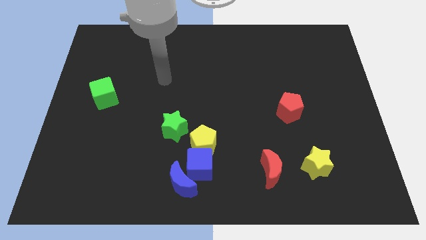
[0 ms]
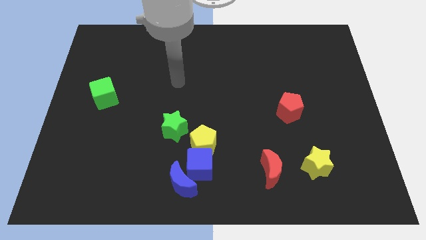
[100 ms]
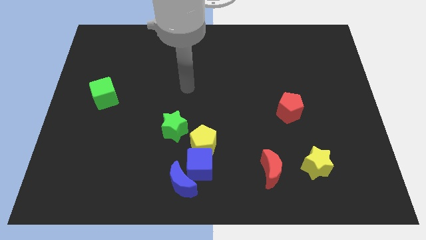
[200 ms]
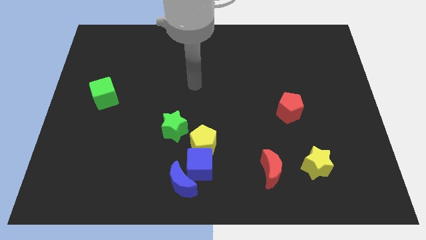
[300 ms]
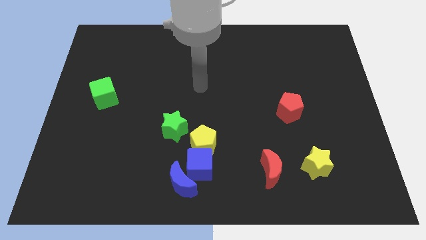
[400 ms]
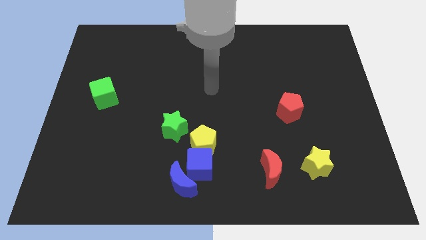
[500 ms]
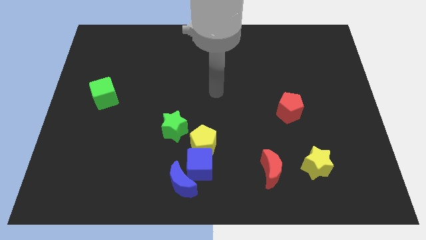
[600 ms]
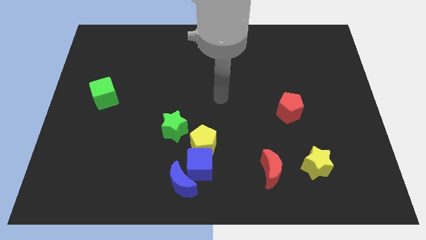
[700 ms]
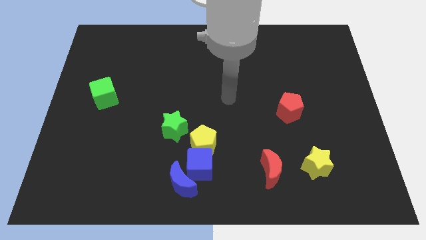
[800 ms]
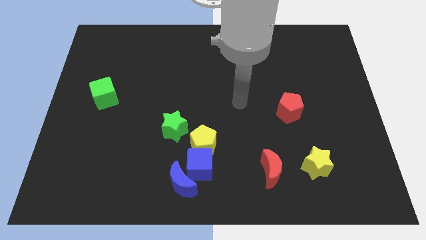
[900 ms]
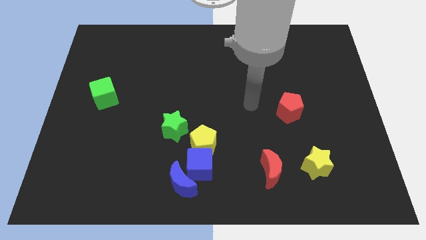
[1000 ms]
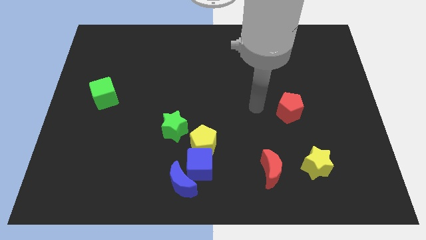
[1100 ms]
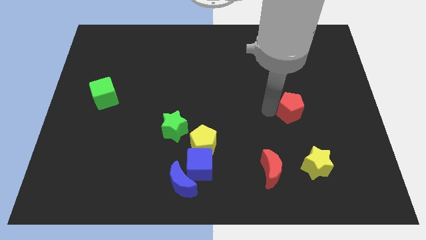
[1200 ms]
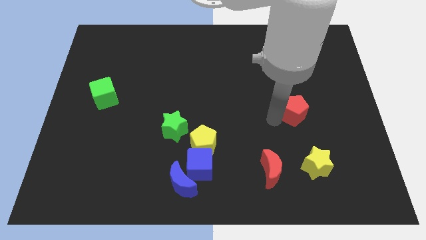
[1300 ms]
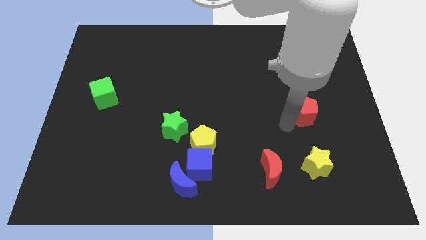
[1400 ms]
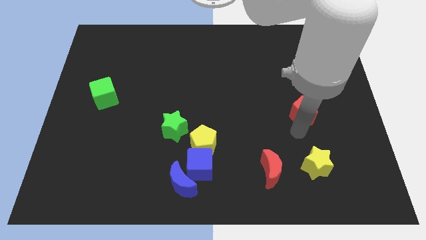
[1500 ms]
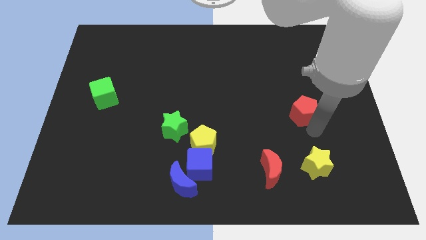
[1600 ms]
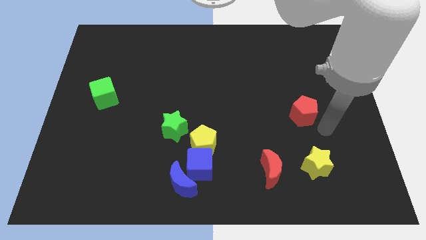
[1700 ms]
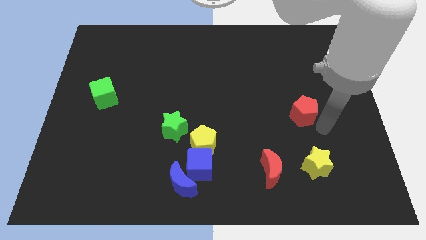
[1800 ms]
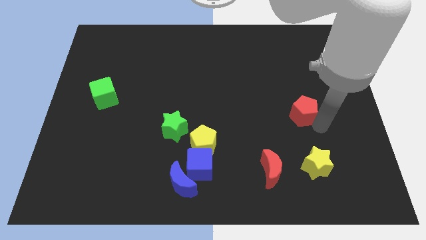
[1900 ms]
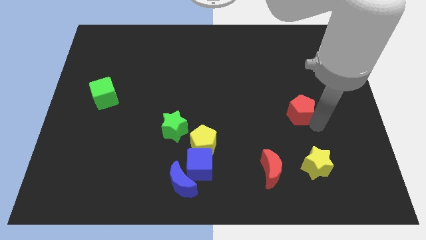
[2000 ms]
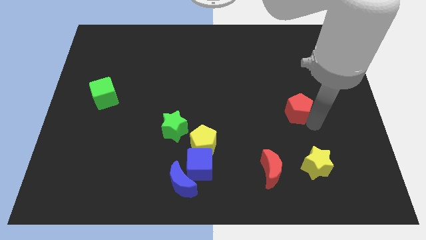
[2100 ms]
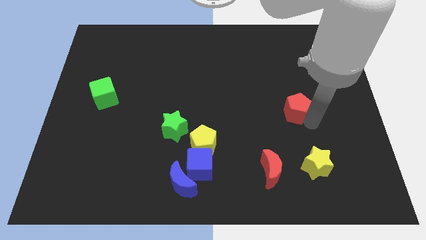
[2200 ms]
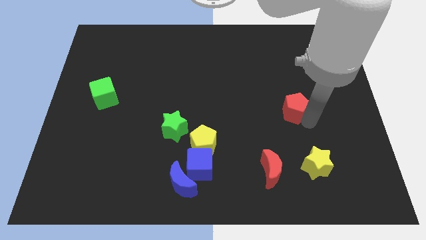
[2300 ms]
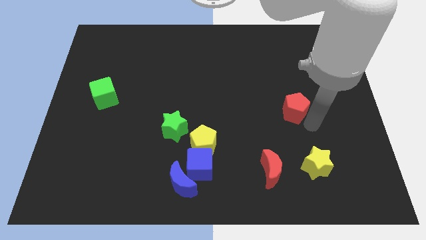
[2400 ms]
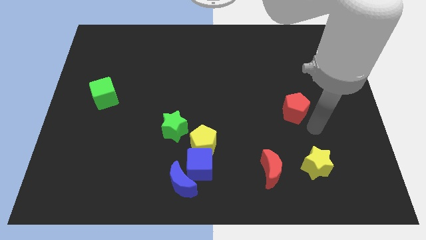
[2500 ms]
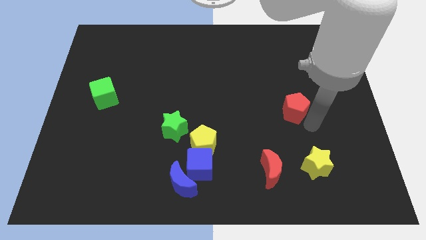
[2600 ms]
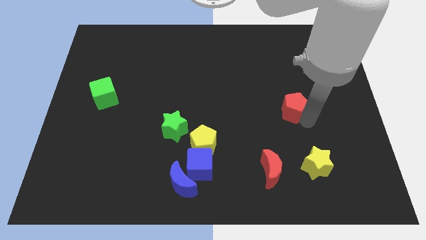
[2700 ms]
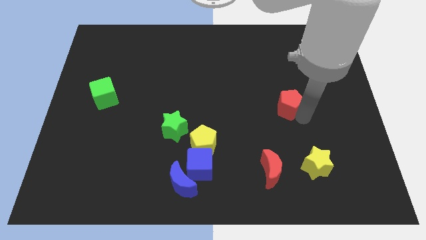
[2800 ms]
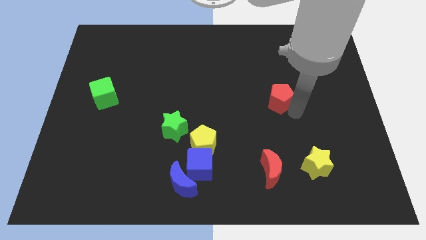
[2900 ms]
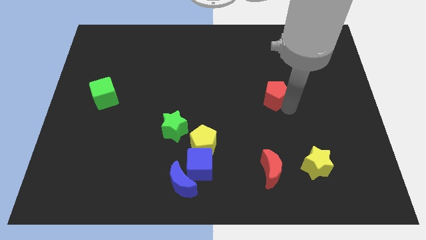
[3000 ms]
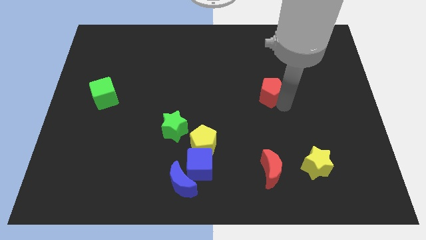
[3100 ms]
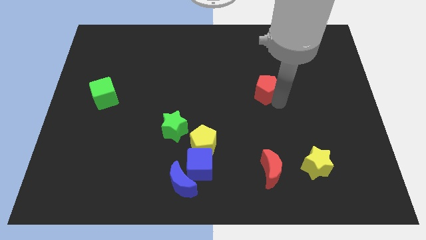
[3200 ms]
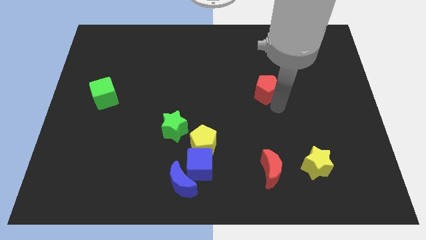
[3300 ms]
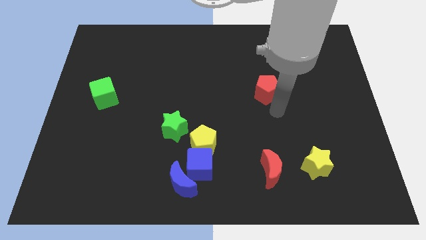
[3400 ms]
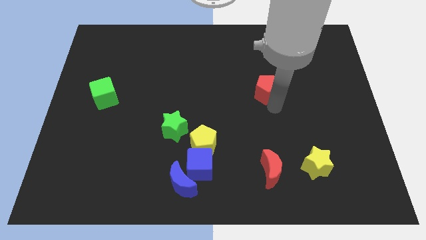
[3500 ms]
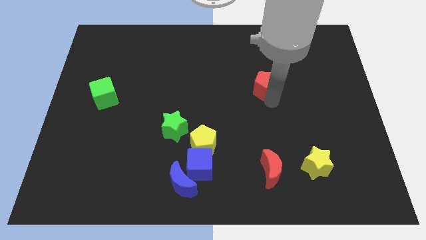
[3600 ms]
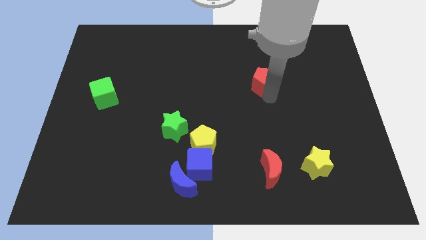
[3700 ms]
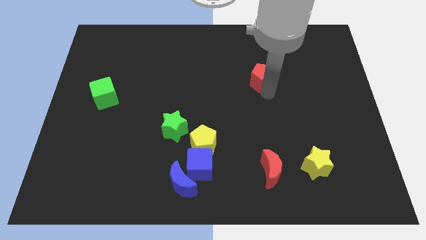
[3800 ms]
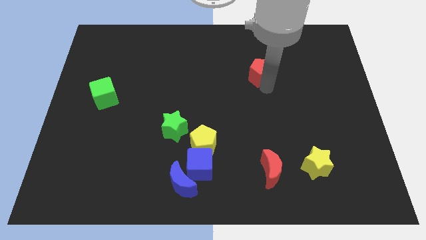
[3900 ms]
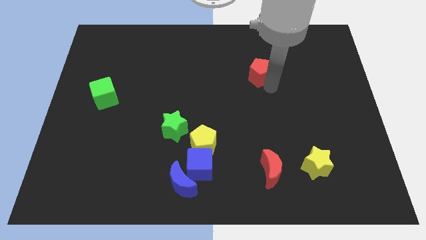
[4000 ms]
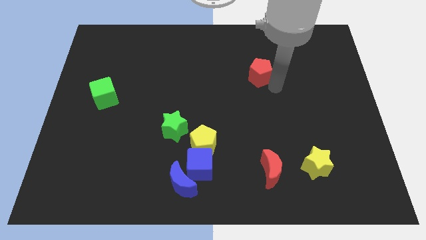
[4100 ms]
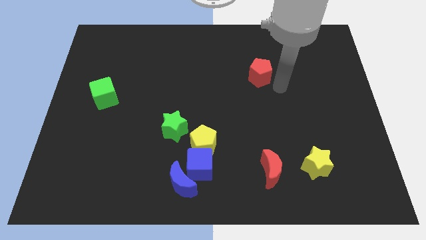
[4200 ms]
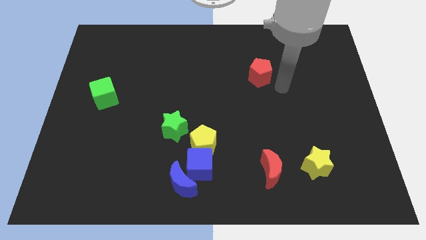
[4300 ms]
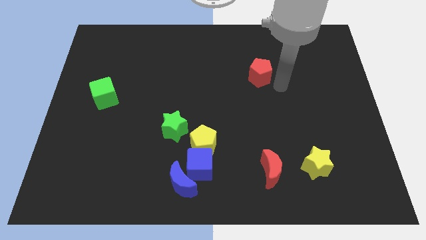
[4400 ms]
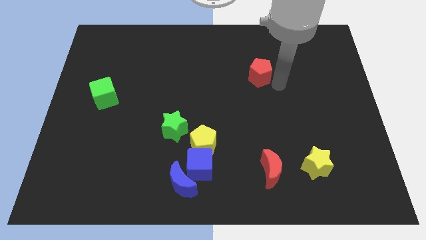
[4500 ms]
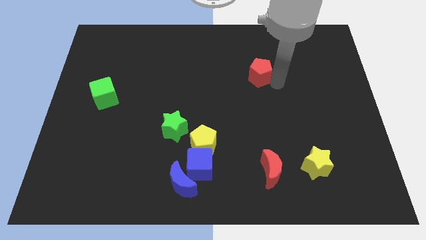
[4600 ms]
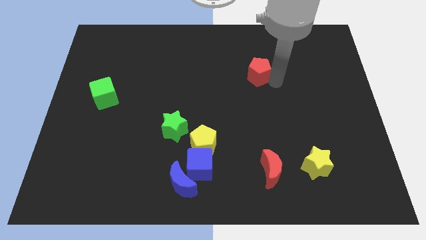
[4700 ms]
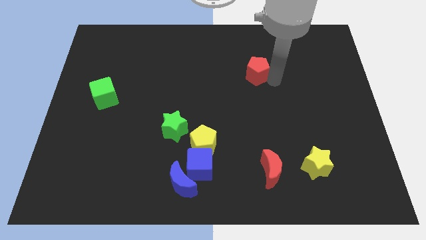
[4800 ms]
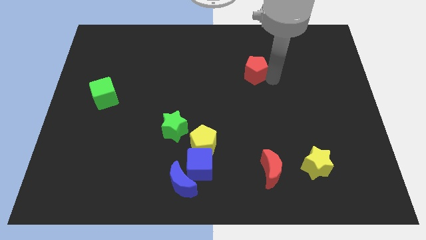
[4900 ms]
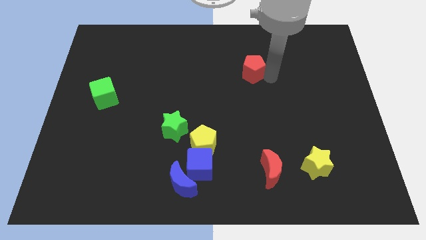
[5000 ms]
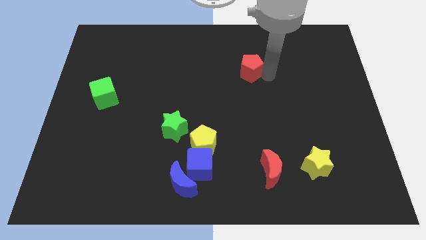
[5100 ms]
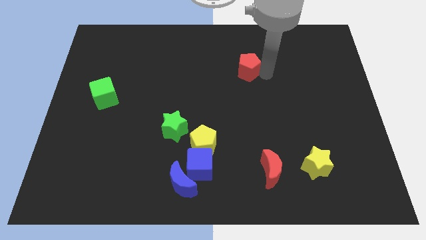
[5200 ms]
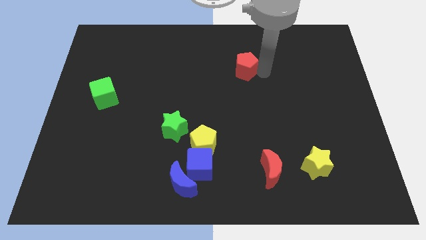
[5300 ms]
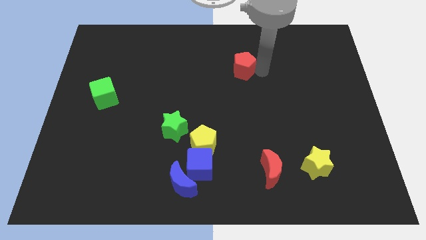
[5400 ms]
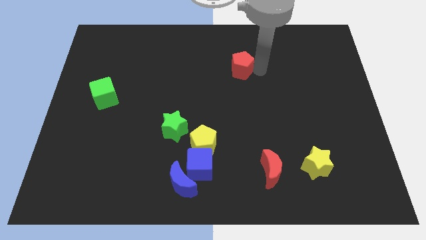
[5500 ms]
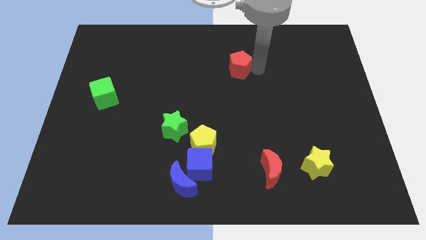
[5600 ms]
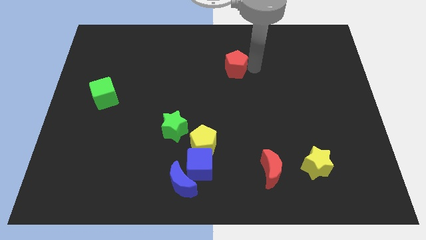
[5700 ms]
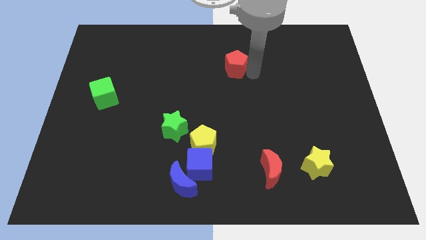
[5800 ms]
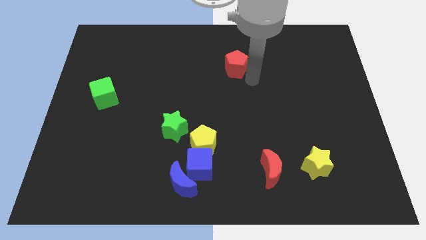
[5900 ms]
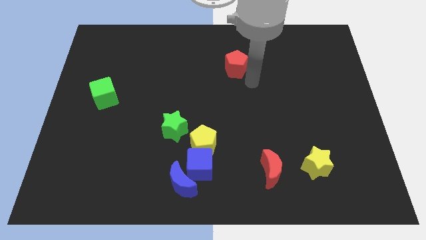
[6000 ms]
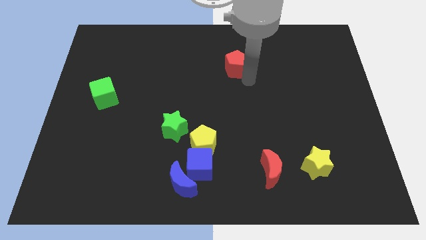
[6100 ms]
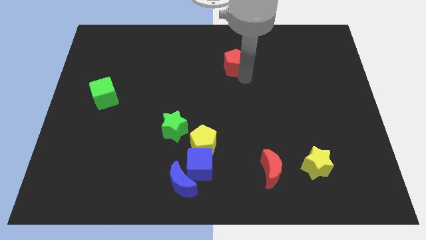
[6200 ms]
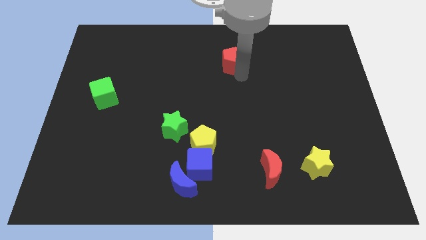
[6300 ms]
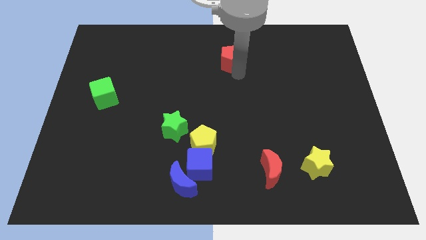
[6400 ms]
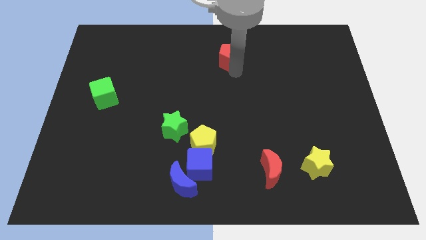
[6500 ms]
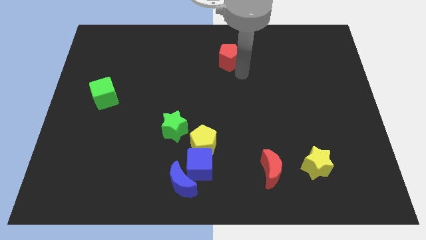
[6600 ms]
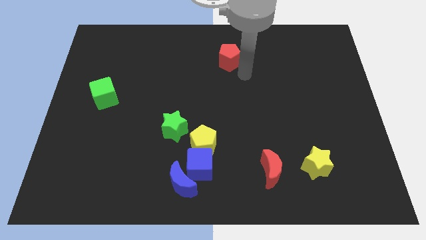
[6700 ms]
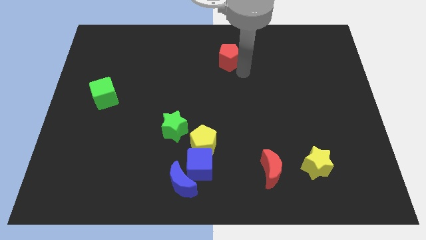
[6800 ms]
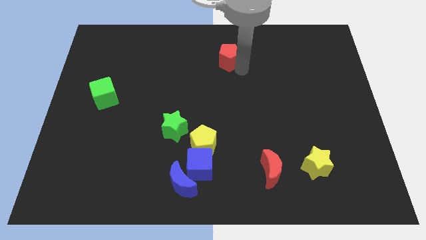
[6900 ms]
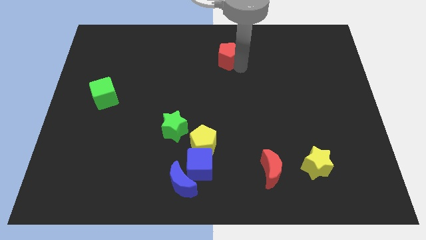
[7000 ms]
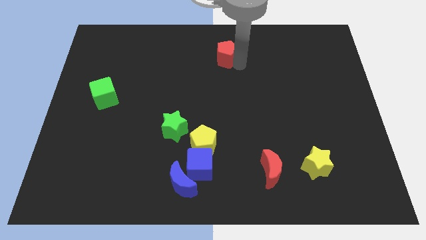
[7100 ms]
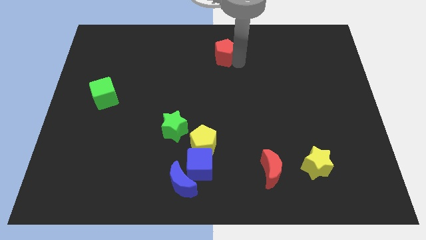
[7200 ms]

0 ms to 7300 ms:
push the red pentagon to the top
